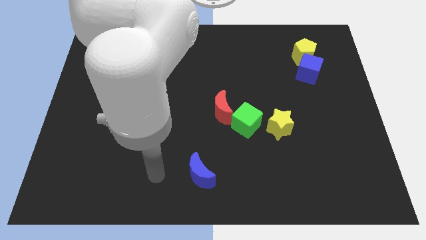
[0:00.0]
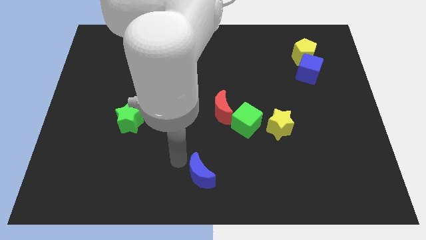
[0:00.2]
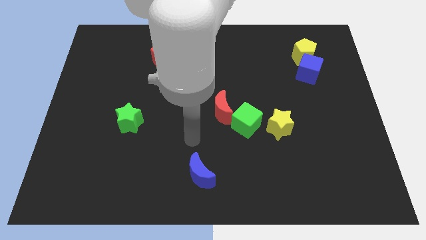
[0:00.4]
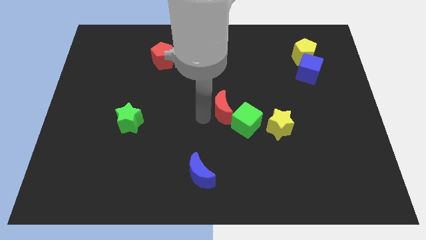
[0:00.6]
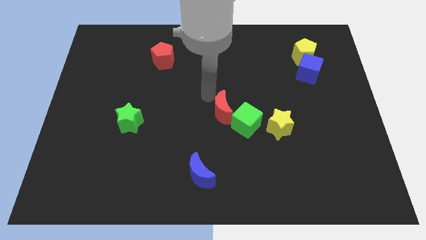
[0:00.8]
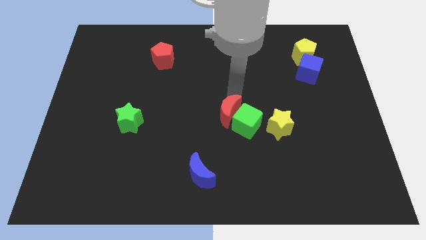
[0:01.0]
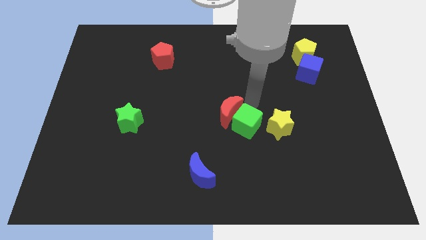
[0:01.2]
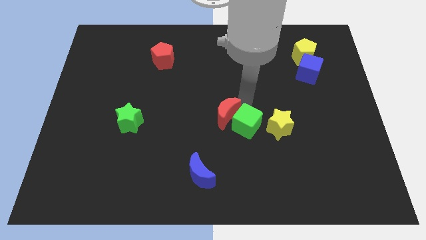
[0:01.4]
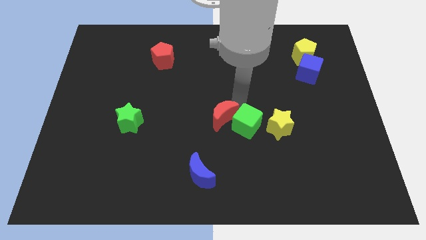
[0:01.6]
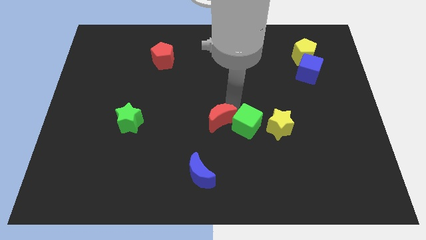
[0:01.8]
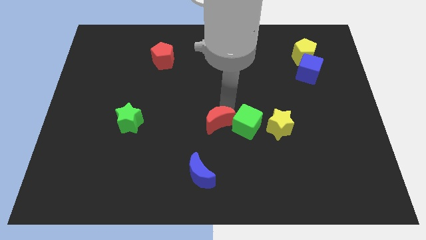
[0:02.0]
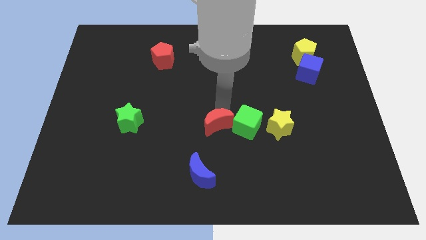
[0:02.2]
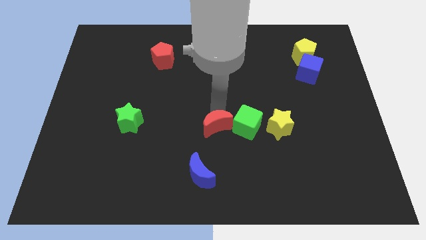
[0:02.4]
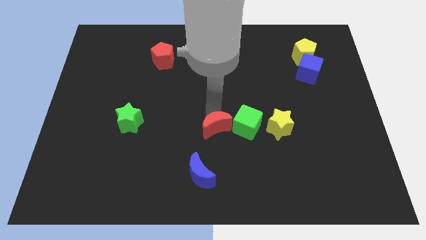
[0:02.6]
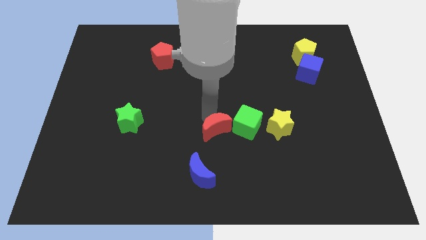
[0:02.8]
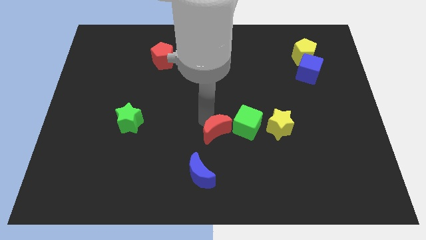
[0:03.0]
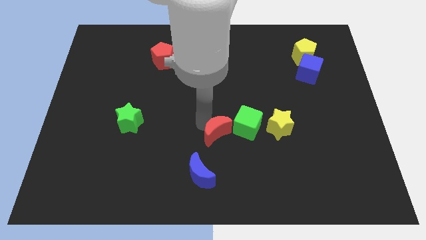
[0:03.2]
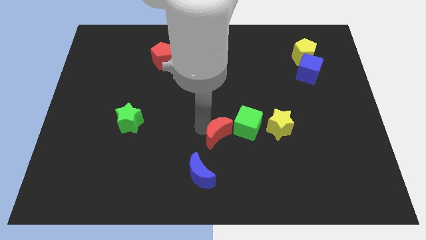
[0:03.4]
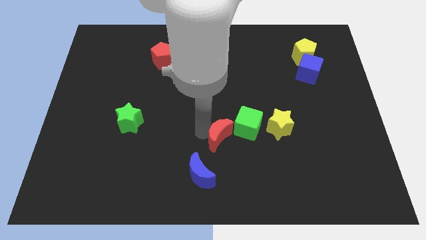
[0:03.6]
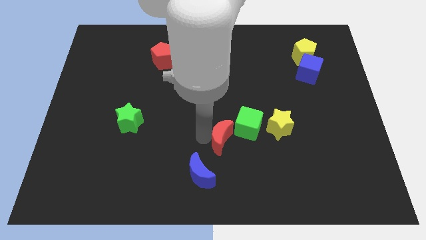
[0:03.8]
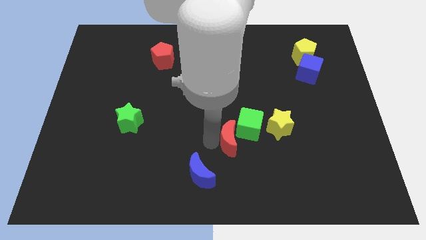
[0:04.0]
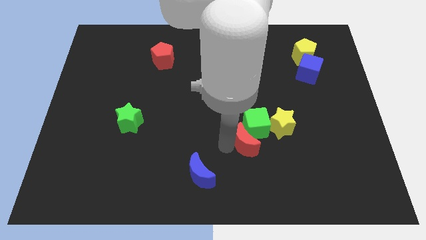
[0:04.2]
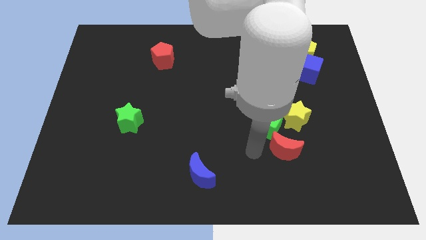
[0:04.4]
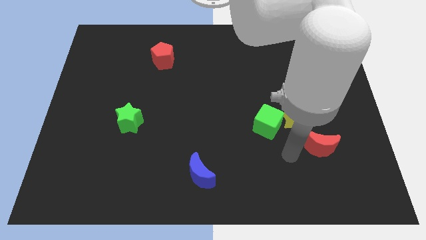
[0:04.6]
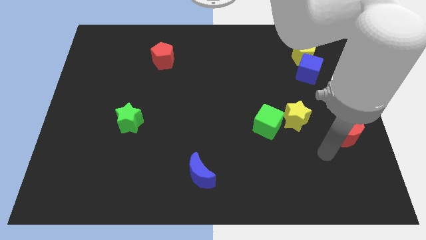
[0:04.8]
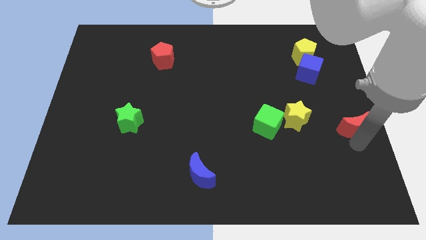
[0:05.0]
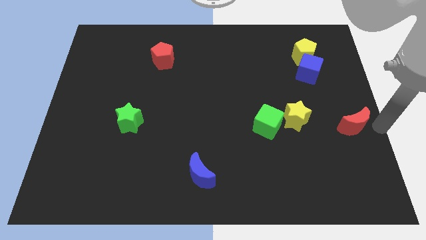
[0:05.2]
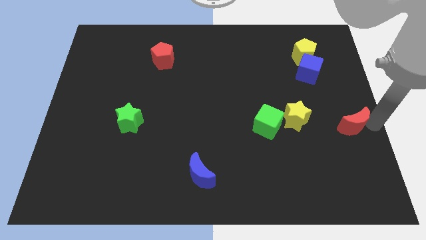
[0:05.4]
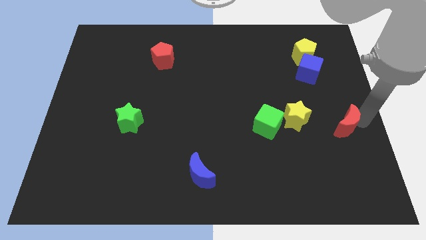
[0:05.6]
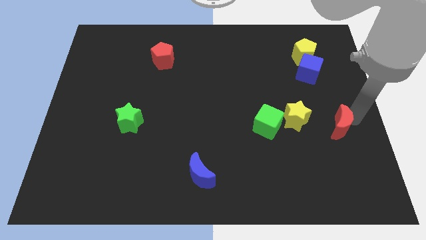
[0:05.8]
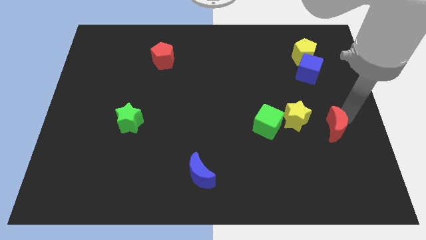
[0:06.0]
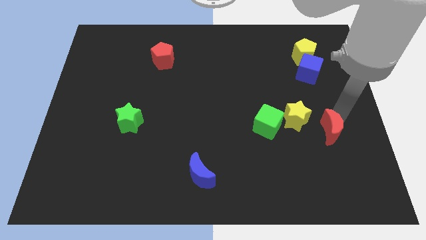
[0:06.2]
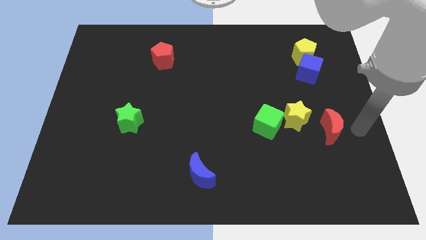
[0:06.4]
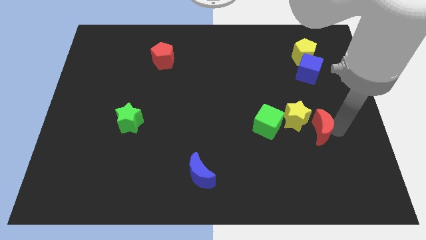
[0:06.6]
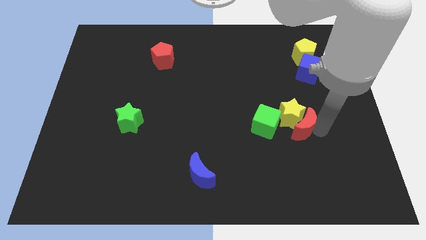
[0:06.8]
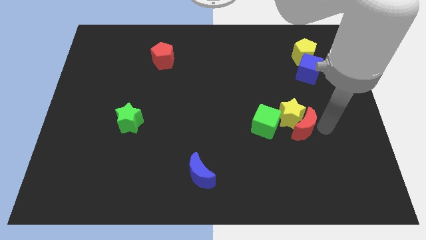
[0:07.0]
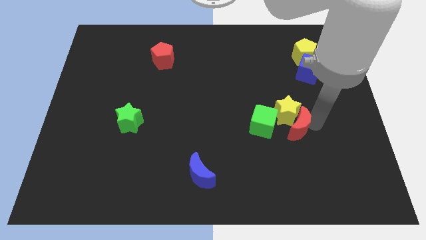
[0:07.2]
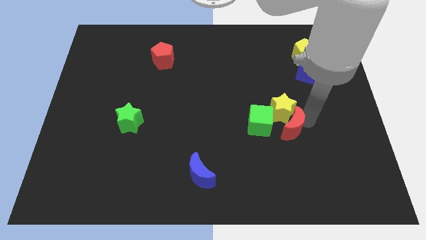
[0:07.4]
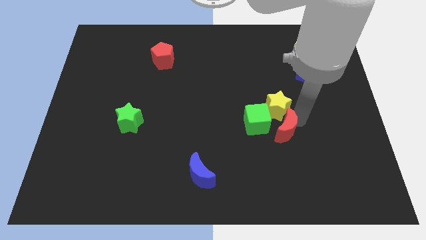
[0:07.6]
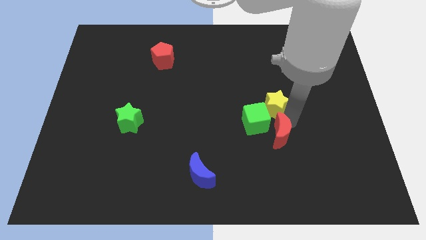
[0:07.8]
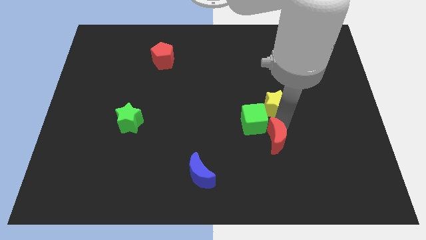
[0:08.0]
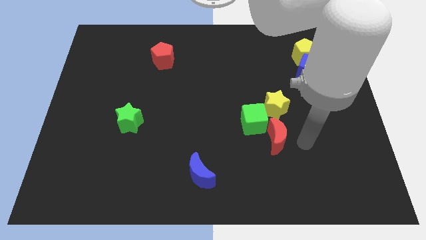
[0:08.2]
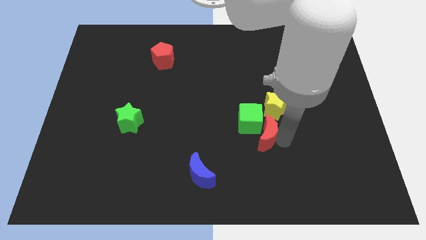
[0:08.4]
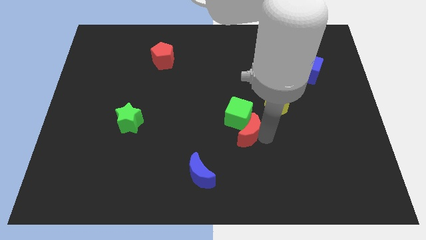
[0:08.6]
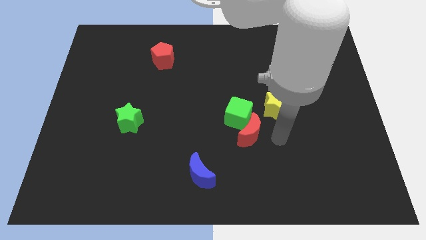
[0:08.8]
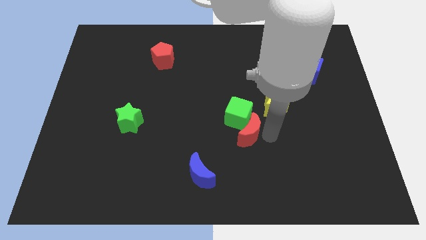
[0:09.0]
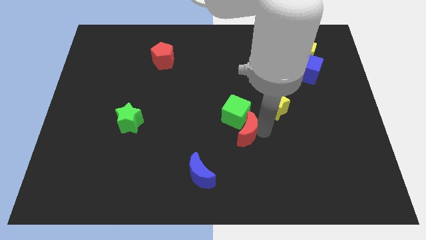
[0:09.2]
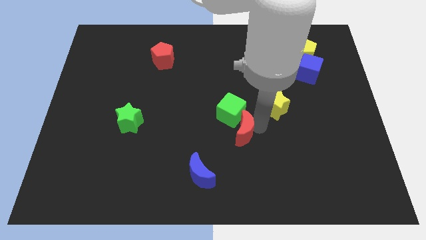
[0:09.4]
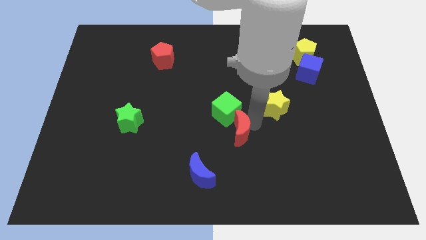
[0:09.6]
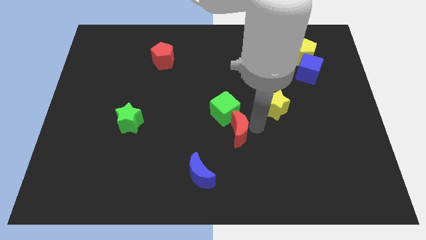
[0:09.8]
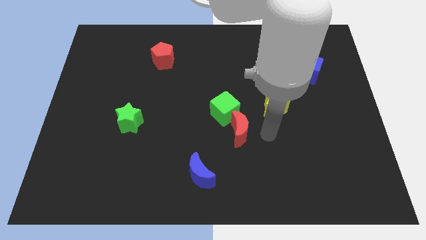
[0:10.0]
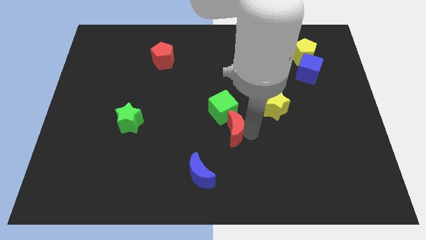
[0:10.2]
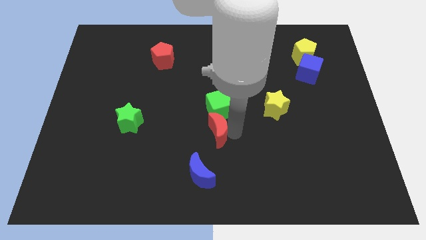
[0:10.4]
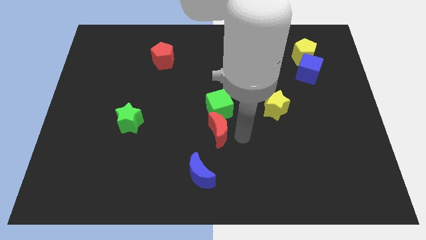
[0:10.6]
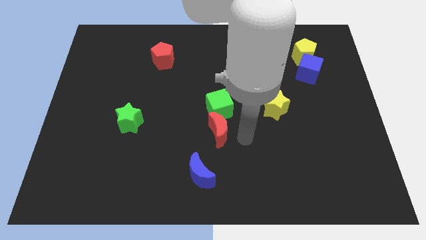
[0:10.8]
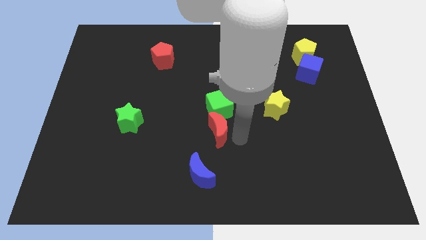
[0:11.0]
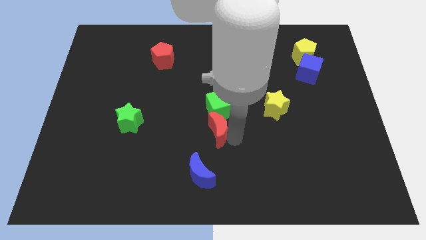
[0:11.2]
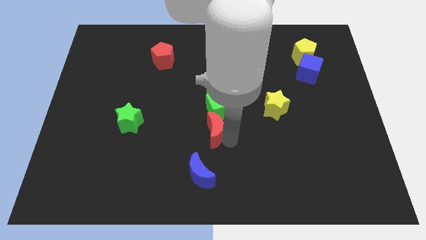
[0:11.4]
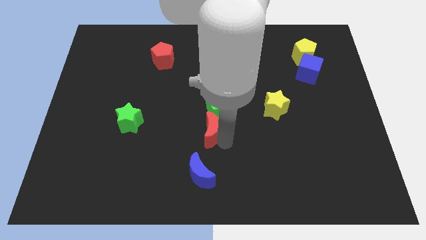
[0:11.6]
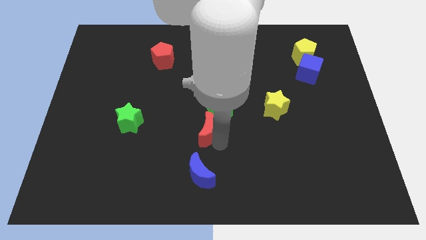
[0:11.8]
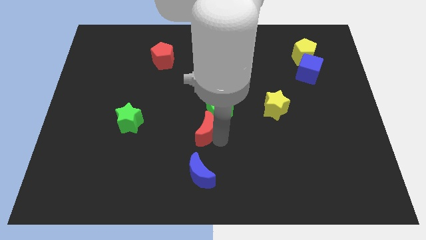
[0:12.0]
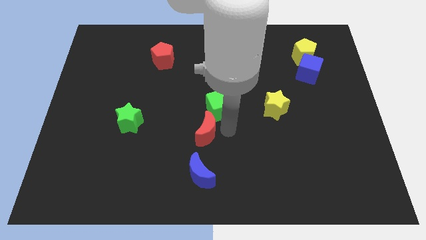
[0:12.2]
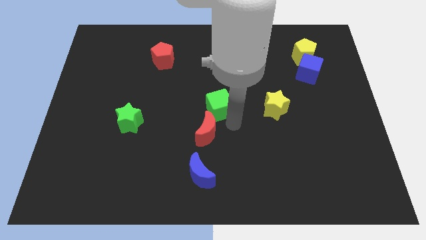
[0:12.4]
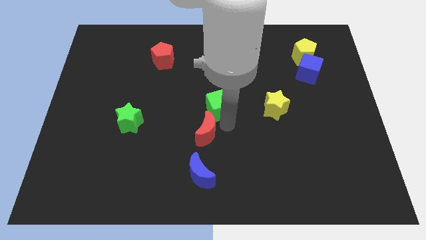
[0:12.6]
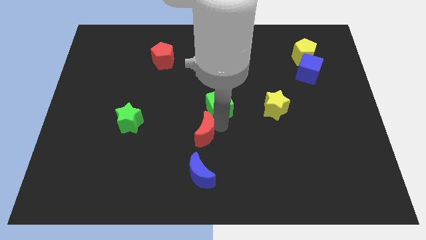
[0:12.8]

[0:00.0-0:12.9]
move the red moon a bit diagonally down and to the left

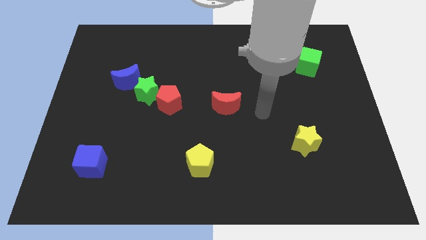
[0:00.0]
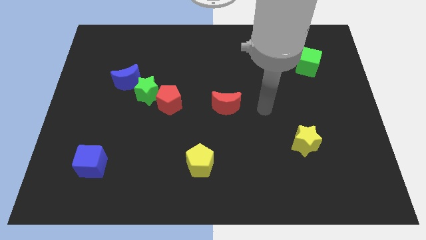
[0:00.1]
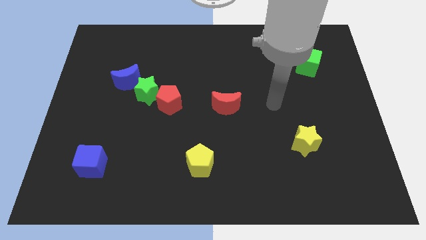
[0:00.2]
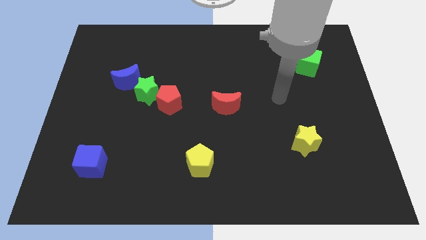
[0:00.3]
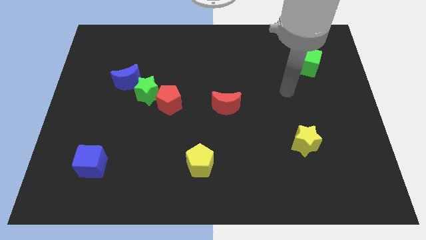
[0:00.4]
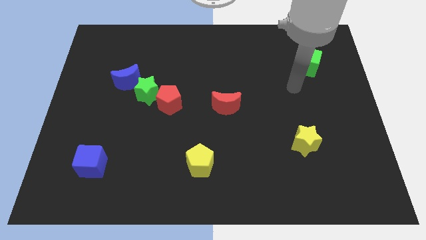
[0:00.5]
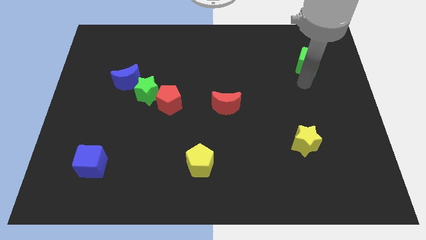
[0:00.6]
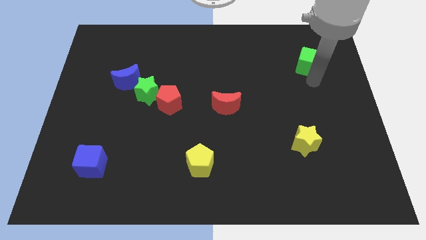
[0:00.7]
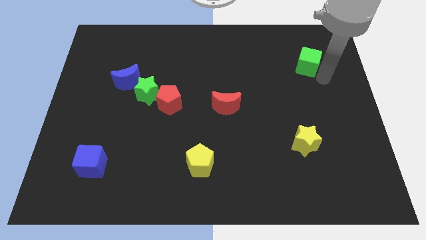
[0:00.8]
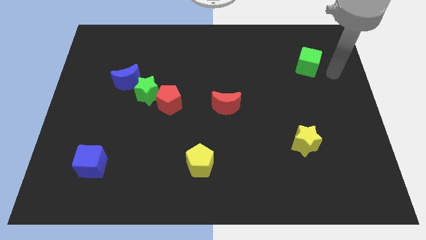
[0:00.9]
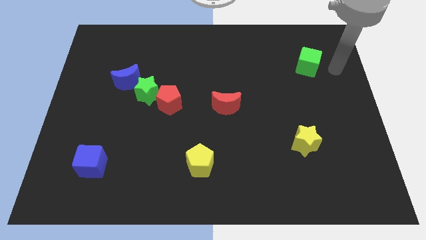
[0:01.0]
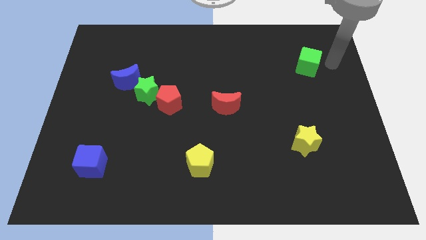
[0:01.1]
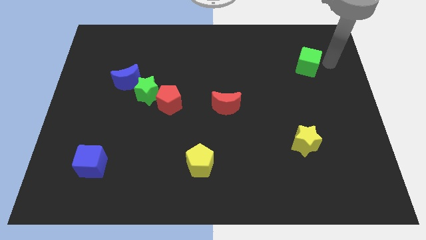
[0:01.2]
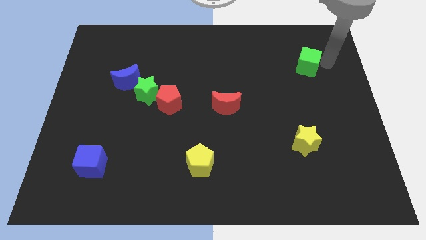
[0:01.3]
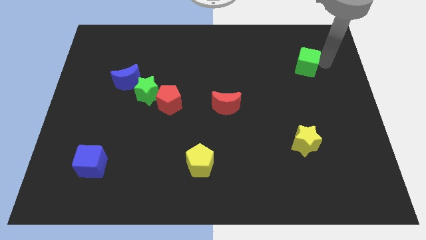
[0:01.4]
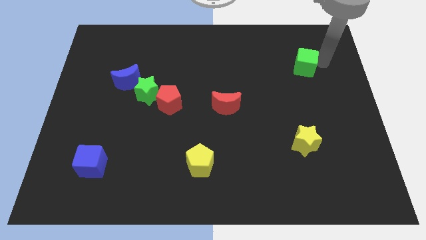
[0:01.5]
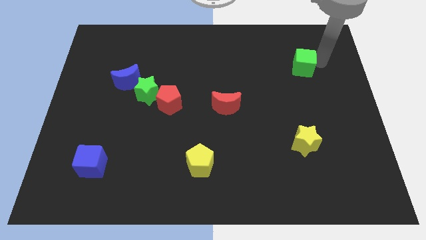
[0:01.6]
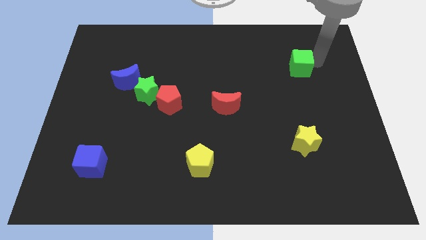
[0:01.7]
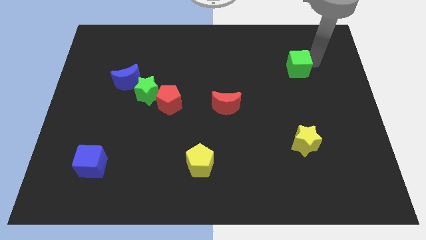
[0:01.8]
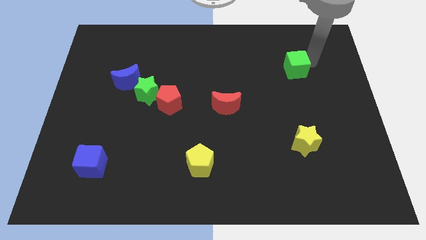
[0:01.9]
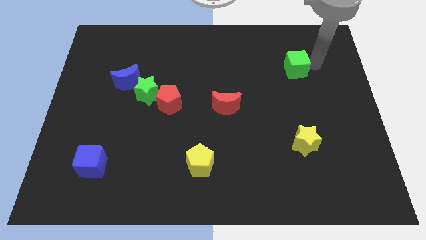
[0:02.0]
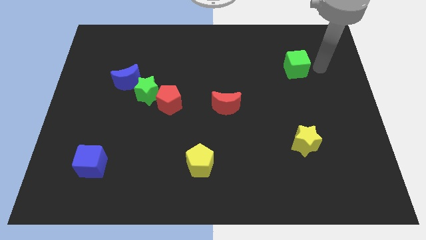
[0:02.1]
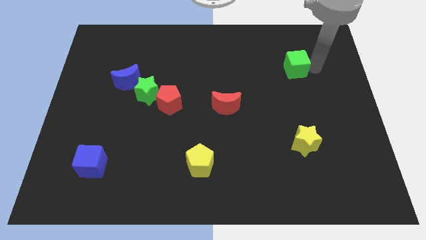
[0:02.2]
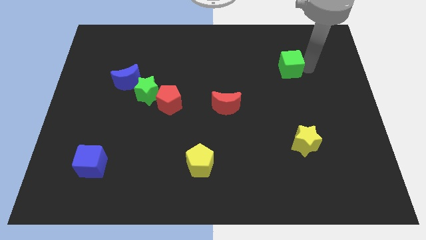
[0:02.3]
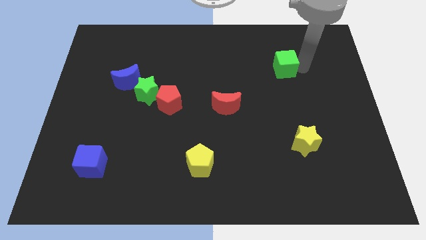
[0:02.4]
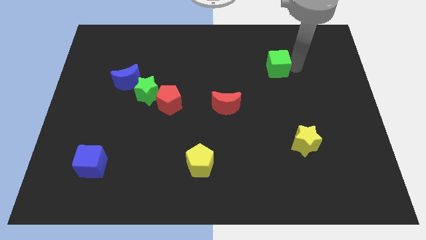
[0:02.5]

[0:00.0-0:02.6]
slightly slide the green cube left
